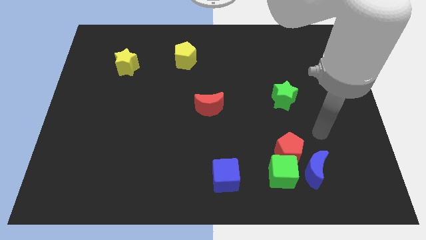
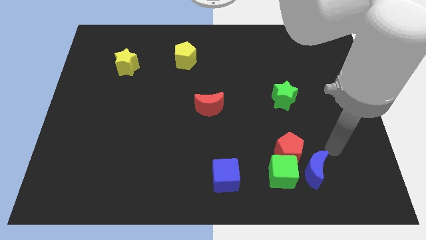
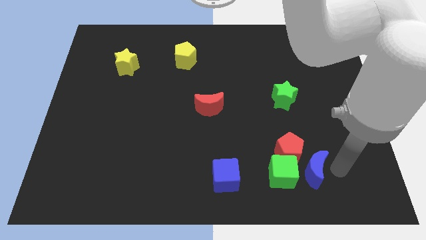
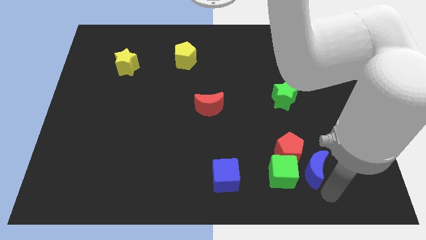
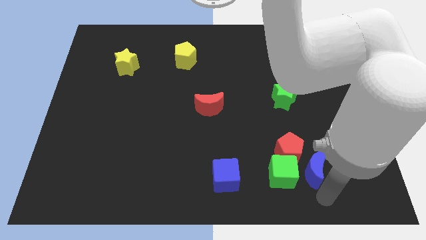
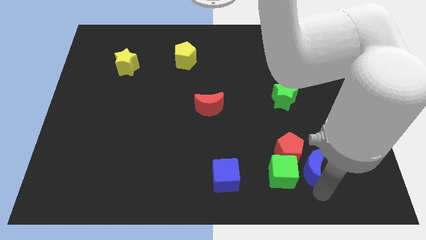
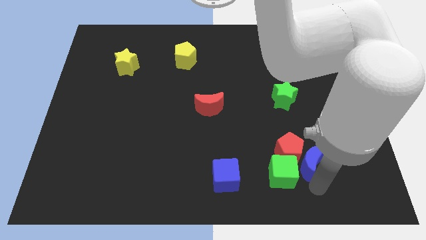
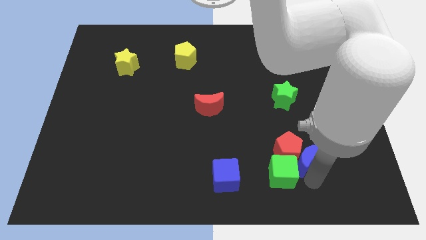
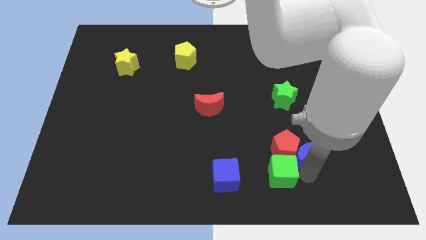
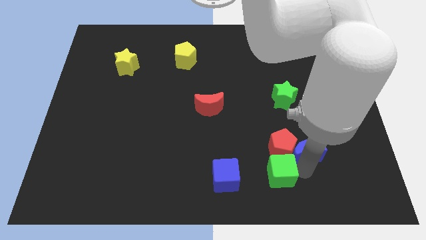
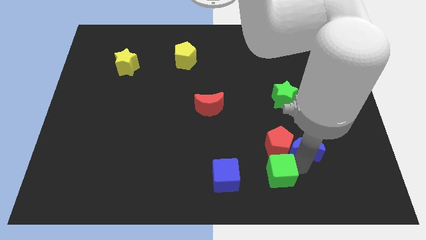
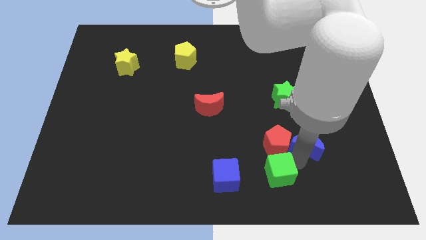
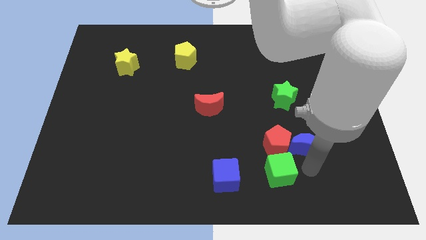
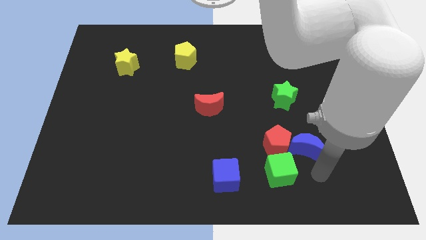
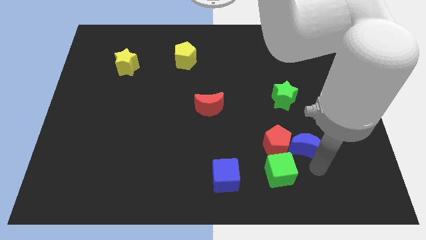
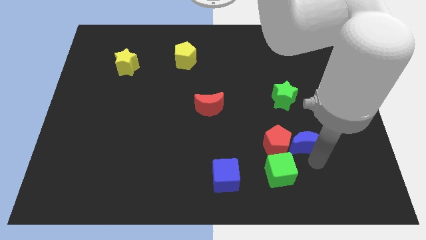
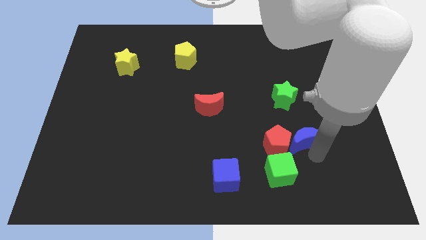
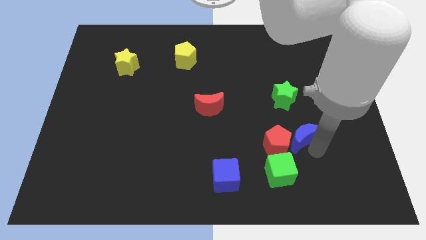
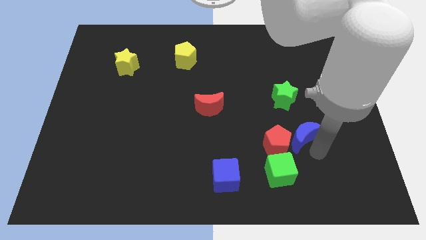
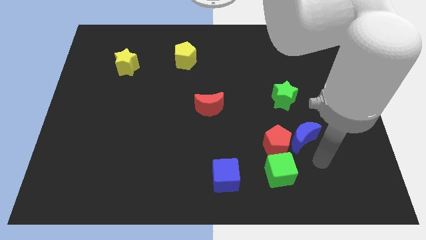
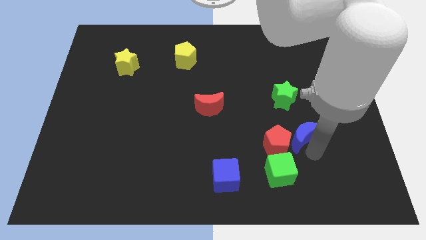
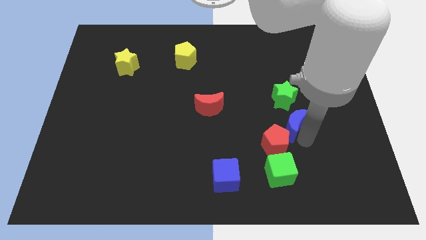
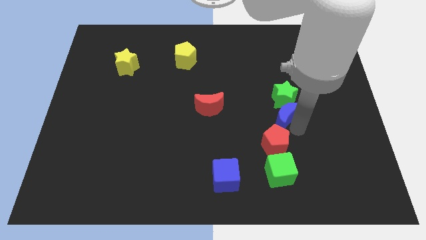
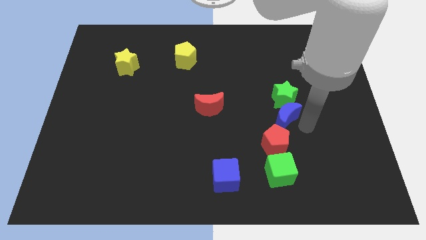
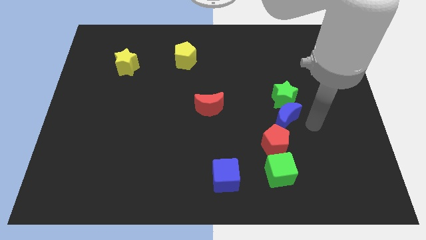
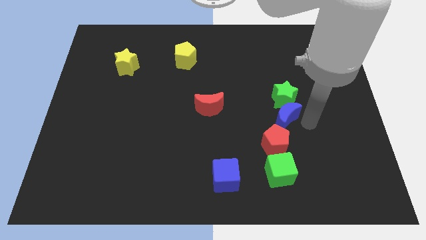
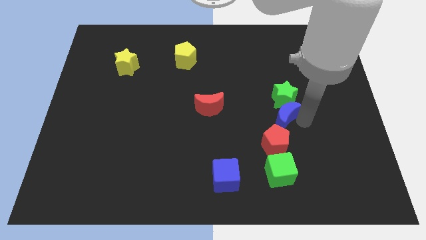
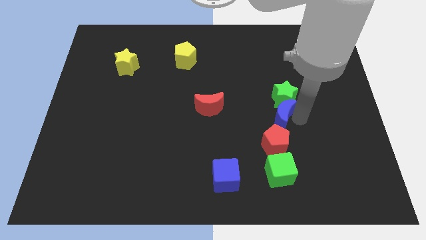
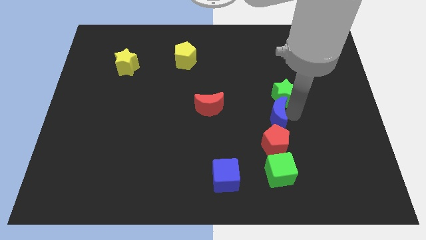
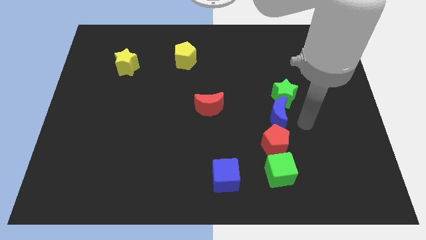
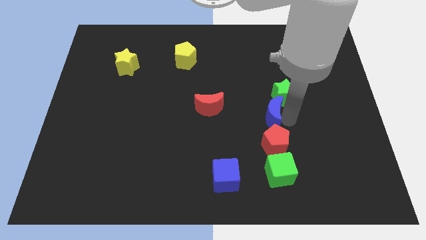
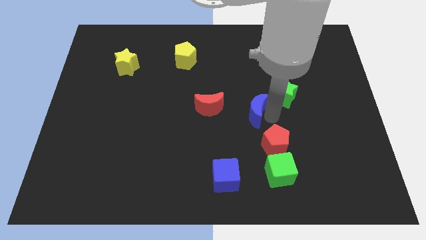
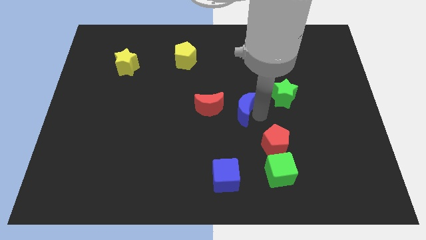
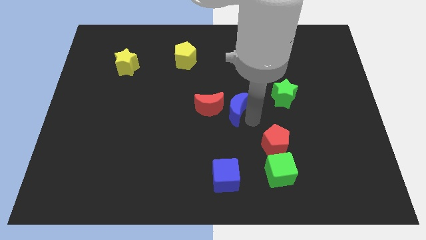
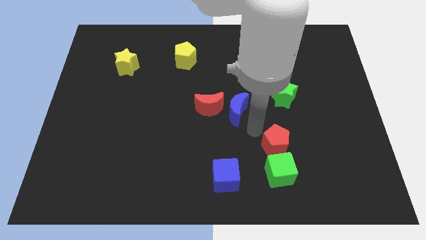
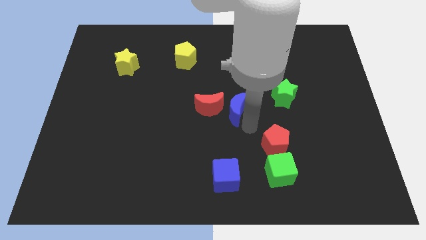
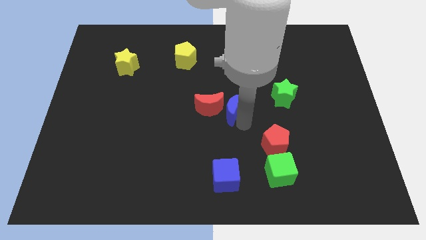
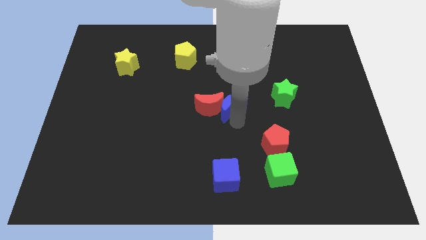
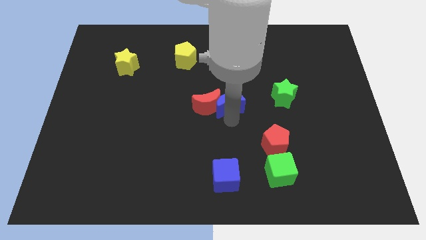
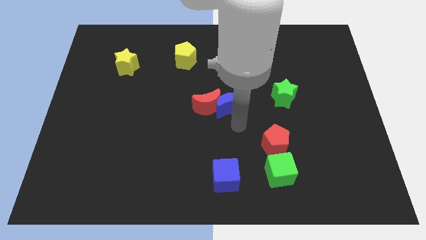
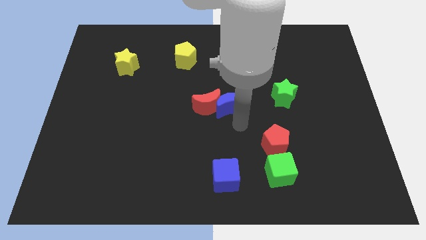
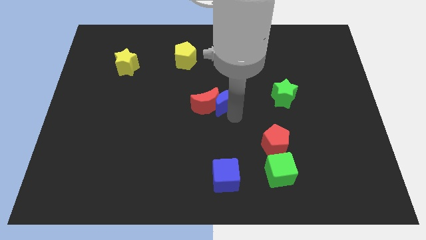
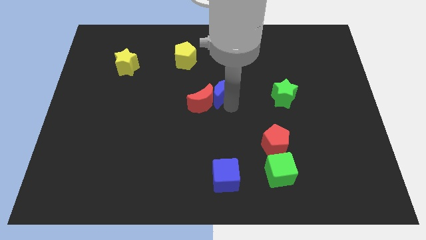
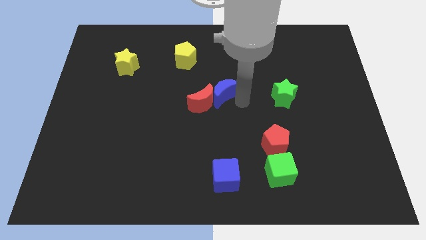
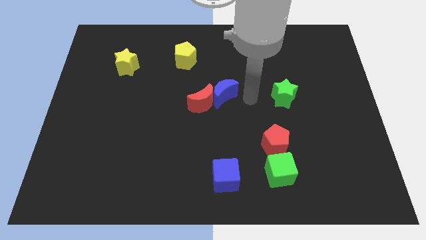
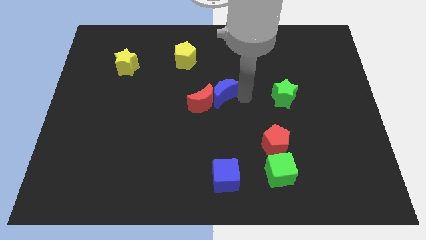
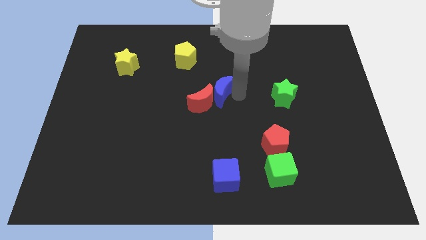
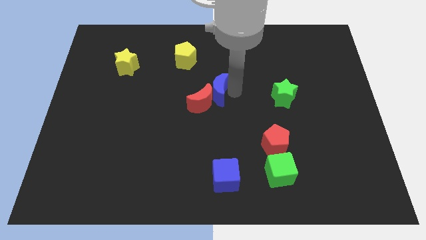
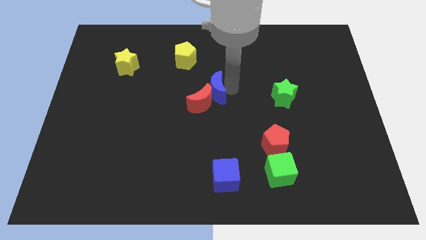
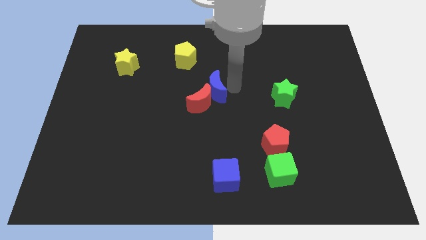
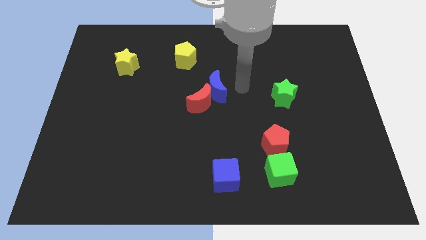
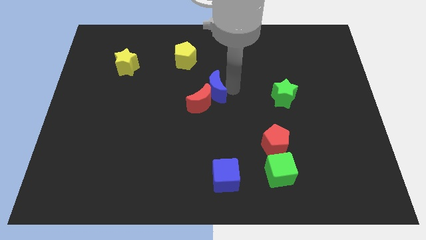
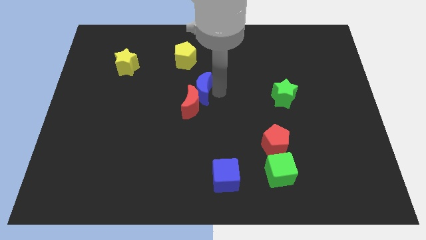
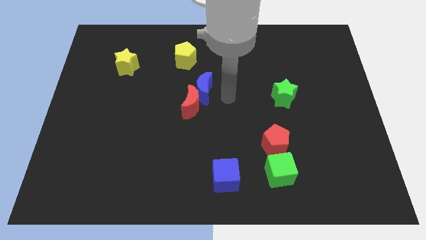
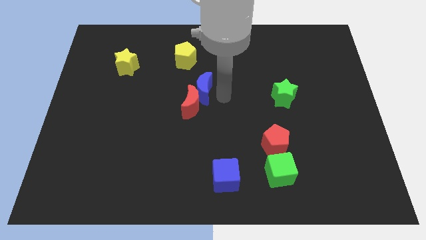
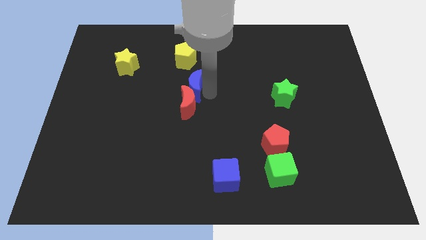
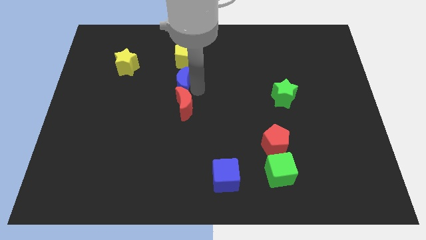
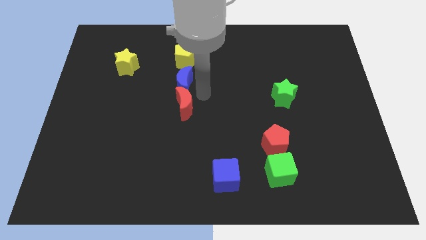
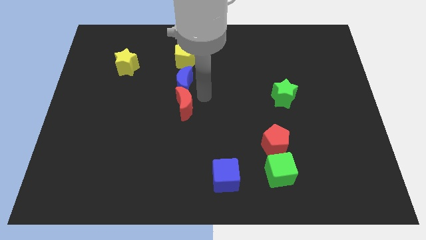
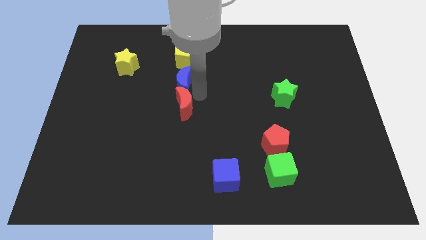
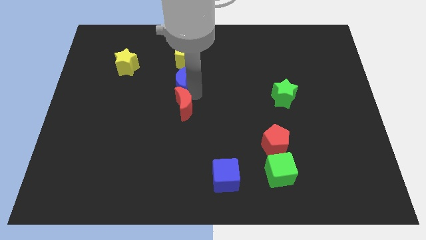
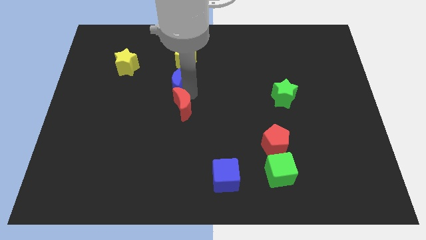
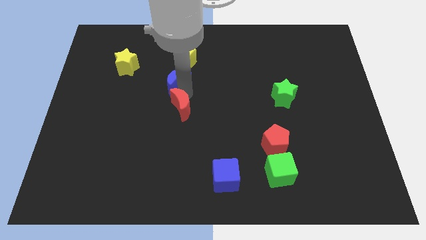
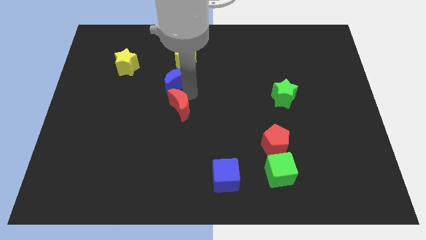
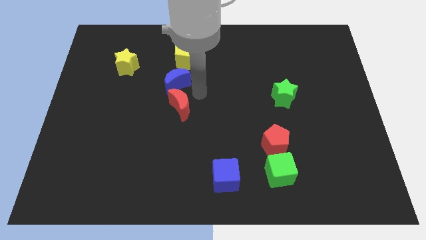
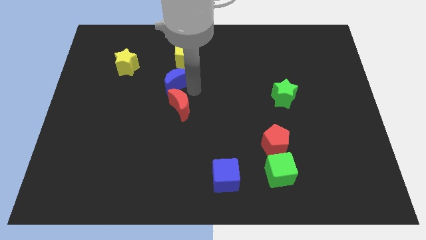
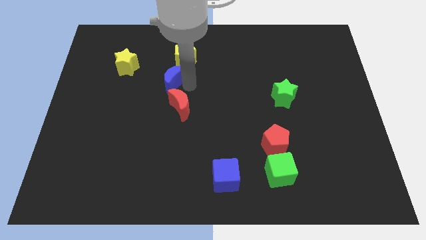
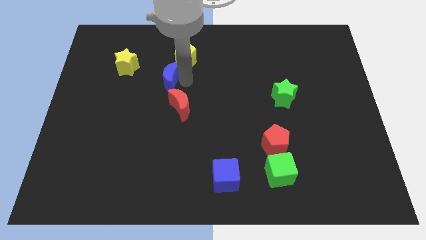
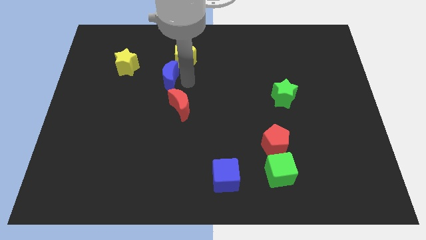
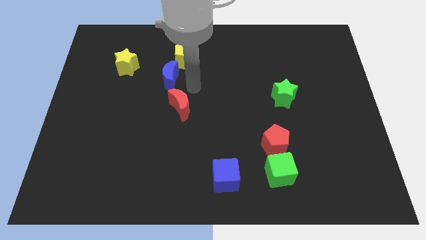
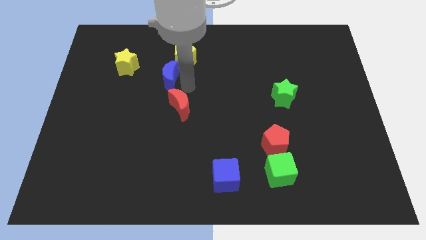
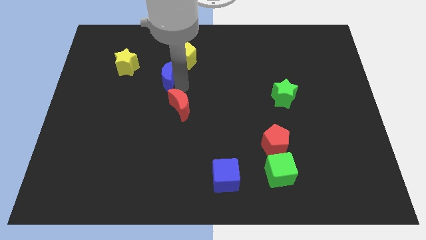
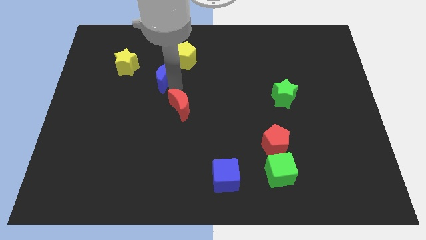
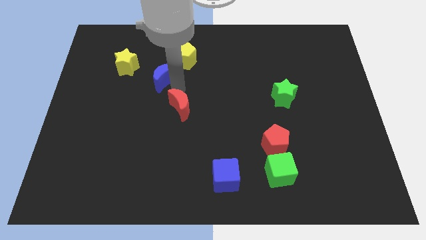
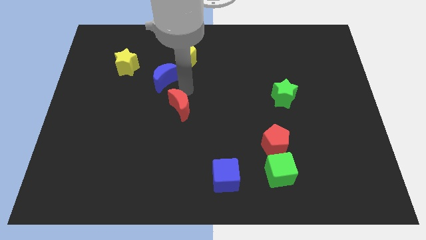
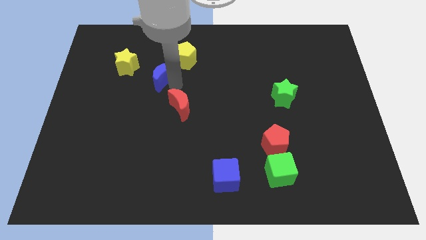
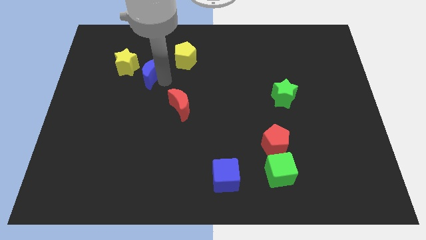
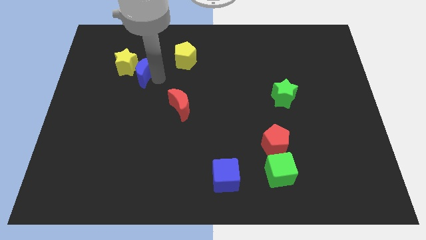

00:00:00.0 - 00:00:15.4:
move the blue moon to the yellow star
